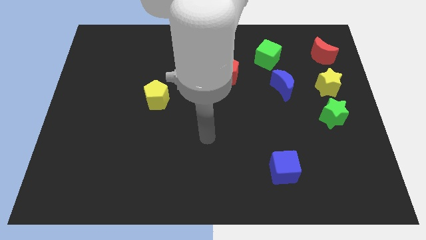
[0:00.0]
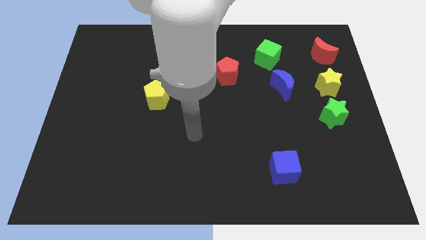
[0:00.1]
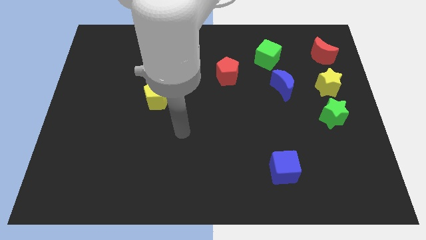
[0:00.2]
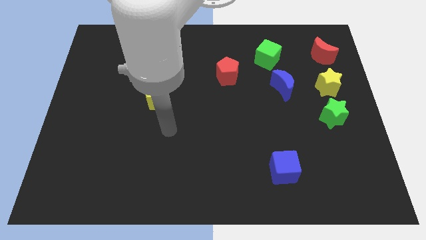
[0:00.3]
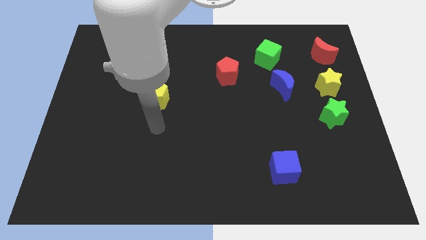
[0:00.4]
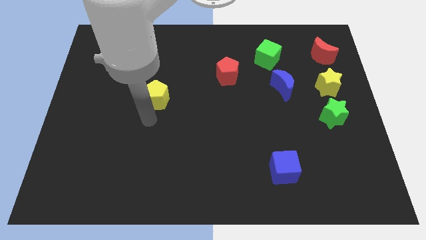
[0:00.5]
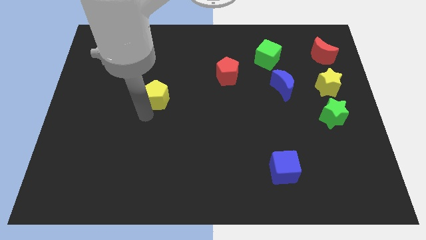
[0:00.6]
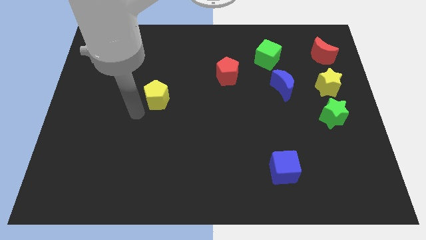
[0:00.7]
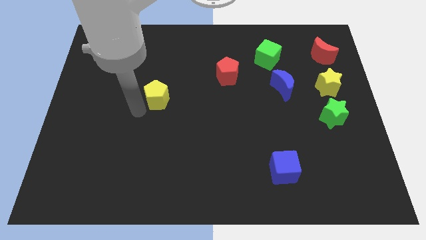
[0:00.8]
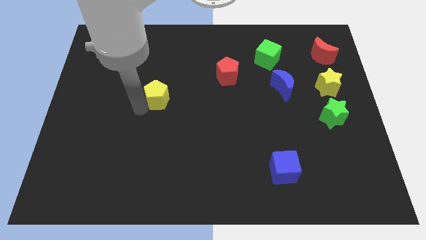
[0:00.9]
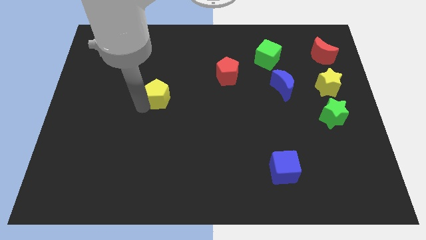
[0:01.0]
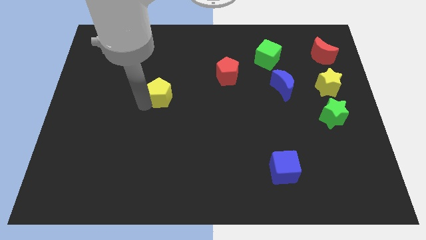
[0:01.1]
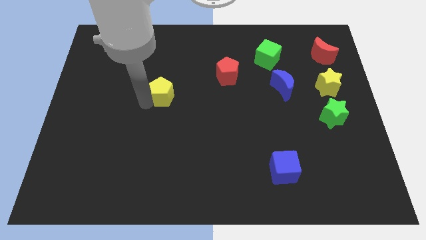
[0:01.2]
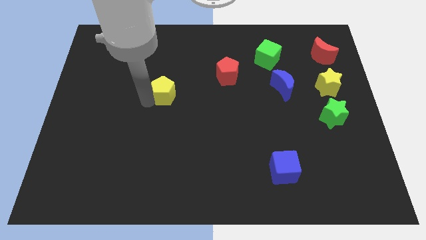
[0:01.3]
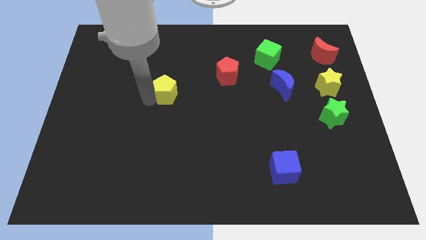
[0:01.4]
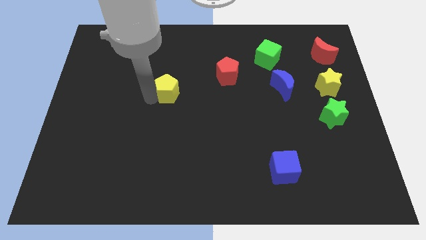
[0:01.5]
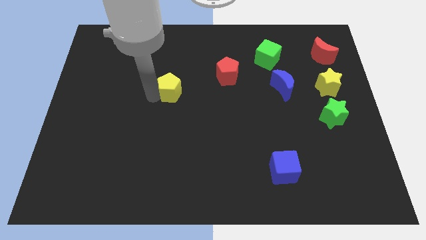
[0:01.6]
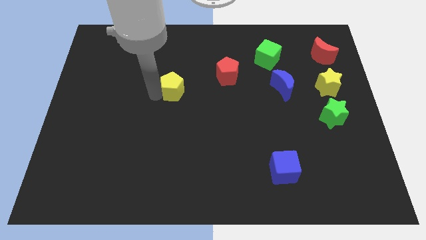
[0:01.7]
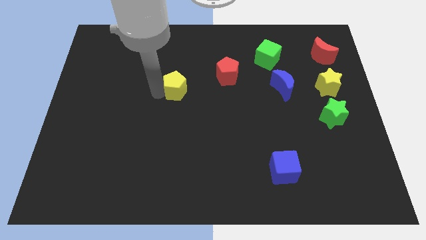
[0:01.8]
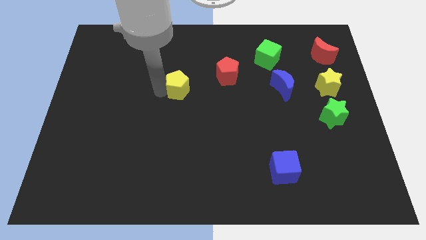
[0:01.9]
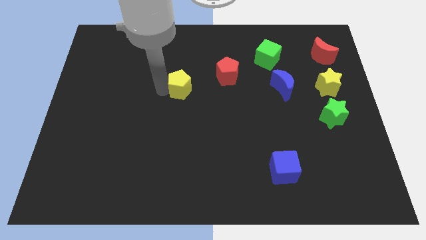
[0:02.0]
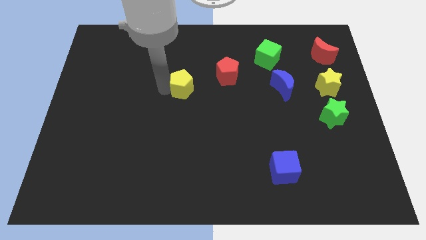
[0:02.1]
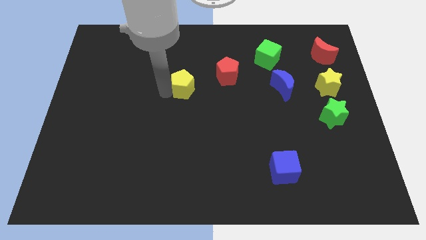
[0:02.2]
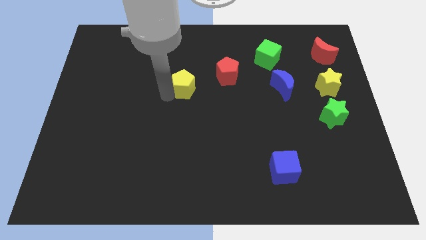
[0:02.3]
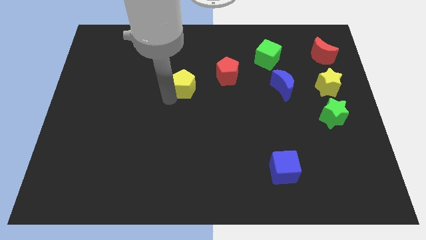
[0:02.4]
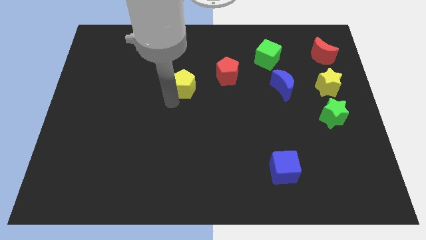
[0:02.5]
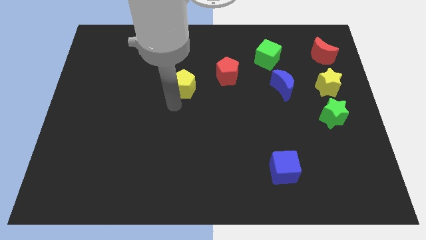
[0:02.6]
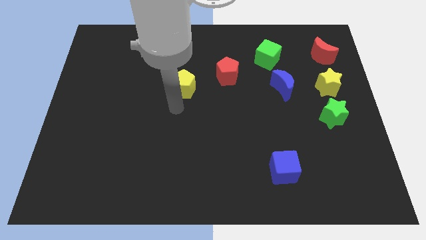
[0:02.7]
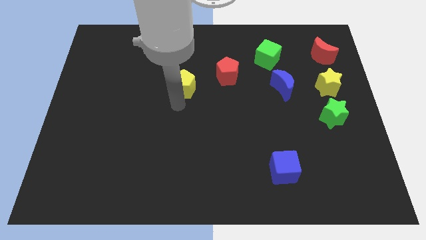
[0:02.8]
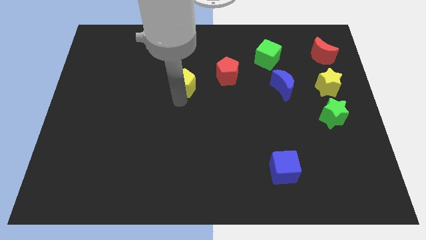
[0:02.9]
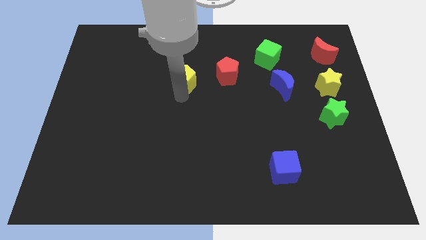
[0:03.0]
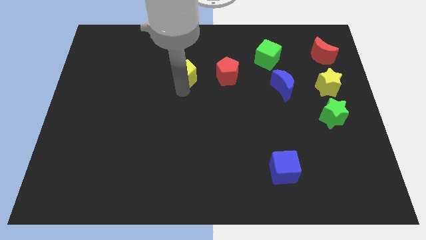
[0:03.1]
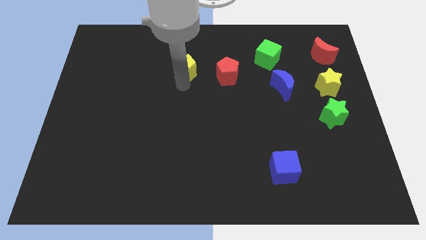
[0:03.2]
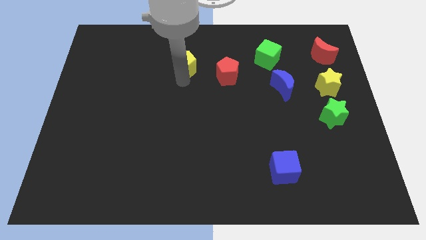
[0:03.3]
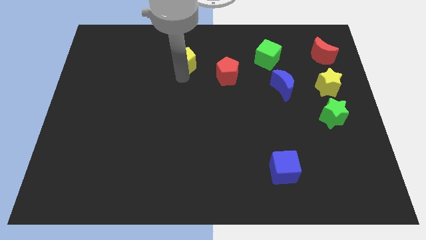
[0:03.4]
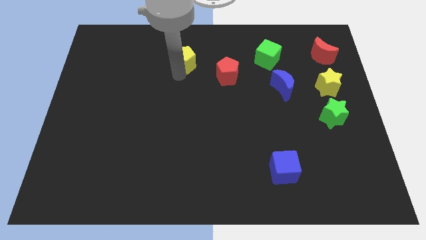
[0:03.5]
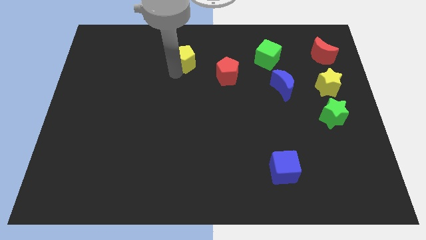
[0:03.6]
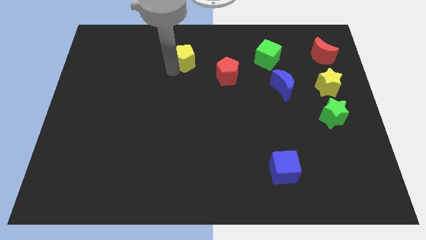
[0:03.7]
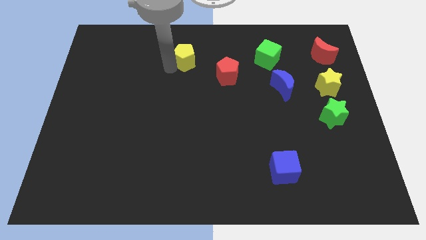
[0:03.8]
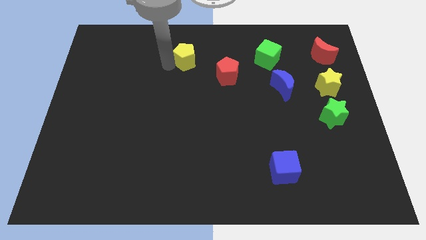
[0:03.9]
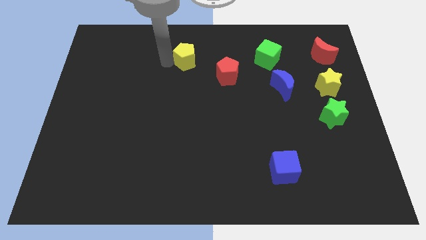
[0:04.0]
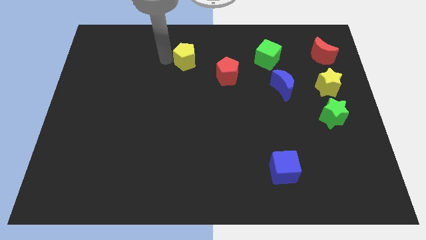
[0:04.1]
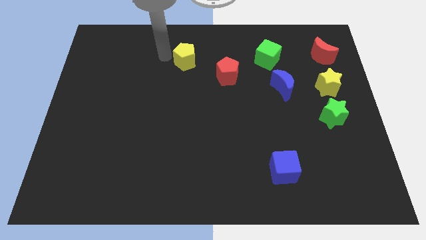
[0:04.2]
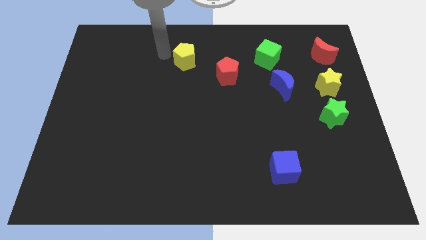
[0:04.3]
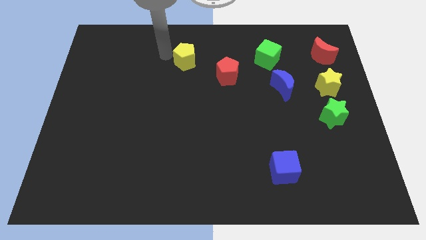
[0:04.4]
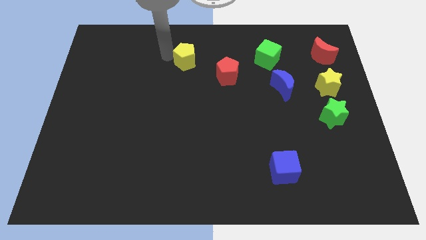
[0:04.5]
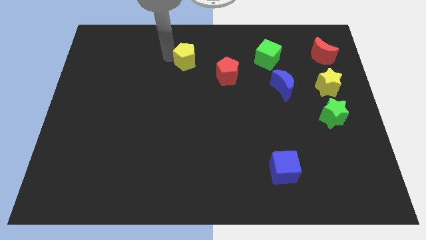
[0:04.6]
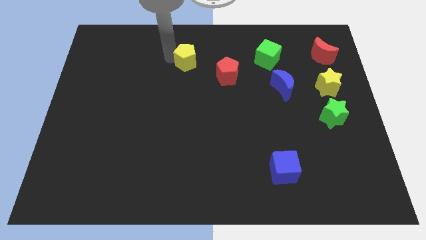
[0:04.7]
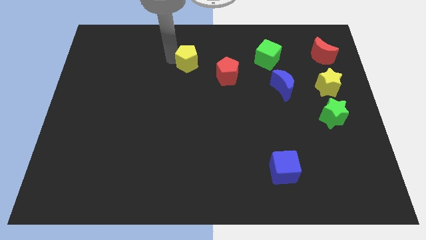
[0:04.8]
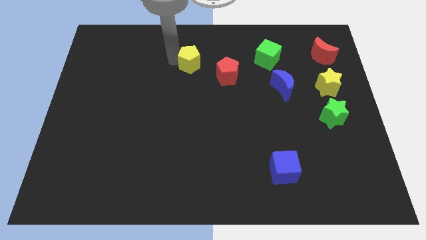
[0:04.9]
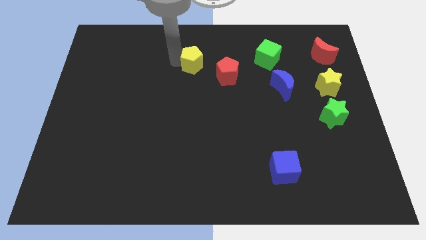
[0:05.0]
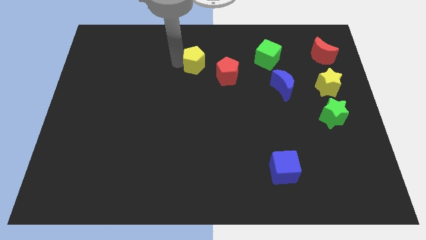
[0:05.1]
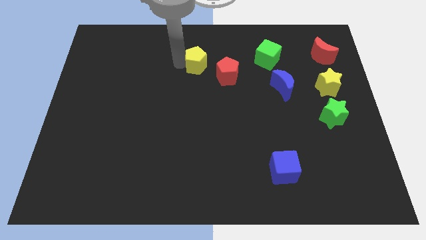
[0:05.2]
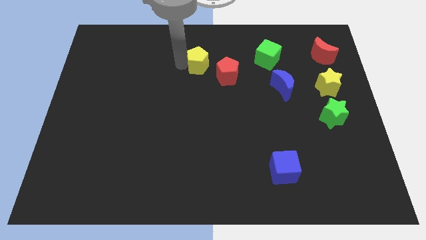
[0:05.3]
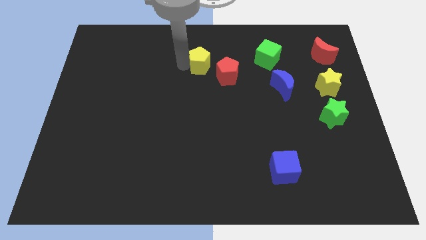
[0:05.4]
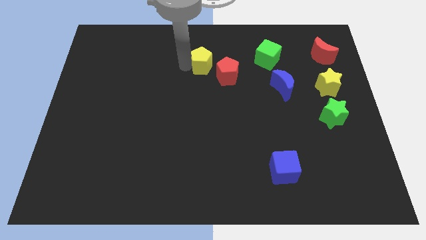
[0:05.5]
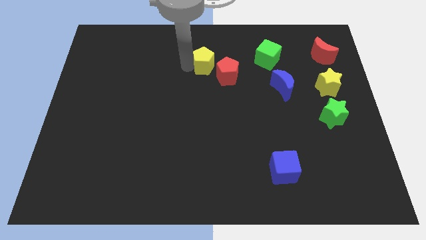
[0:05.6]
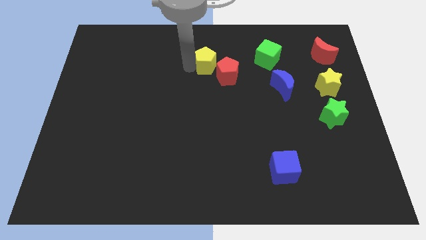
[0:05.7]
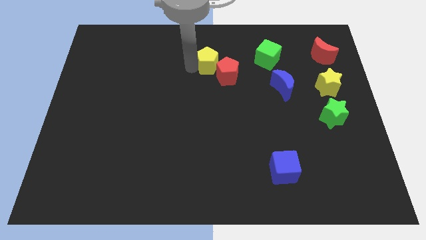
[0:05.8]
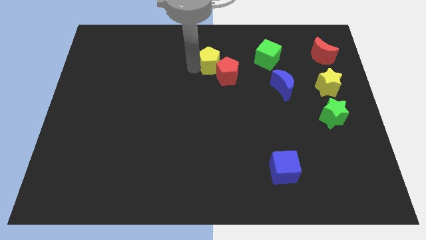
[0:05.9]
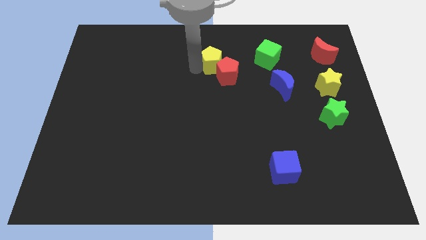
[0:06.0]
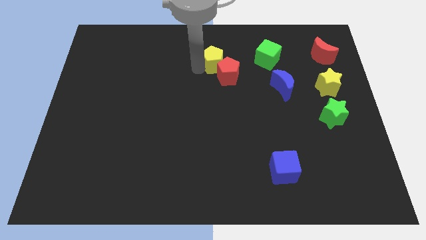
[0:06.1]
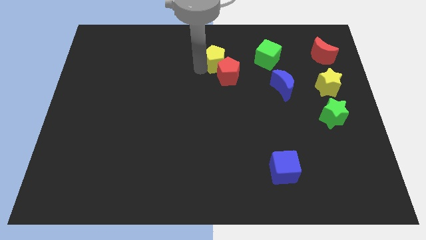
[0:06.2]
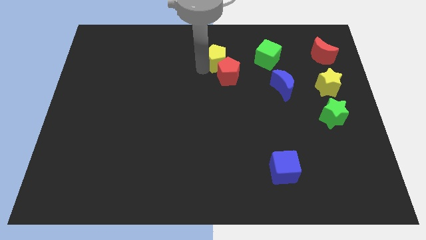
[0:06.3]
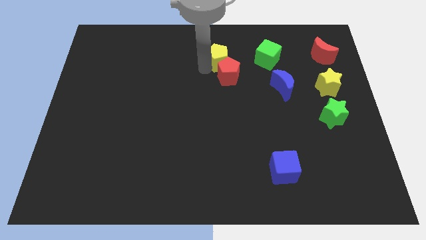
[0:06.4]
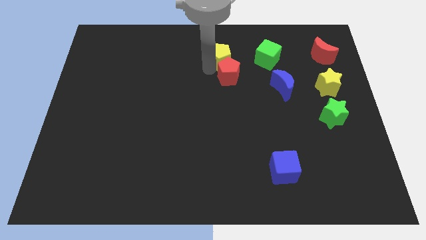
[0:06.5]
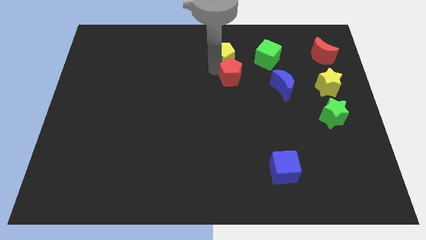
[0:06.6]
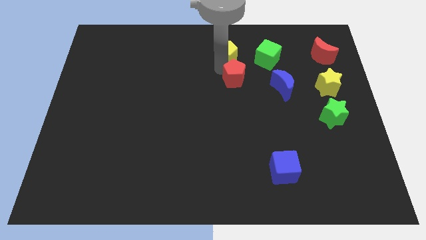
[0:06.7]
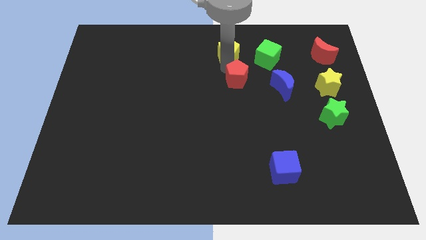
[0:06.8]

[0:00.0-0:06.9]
slide the yellow pentagon to the top
